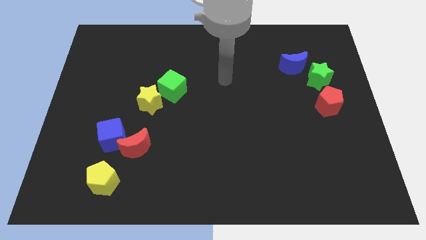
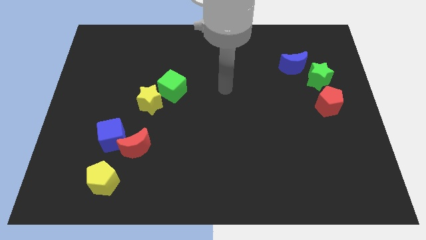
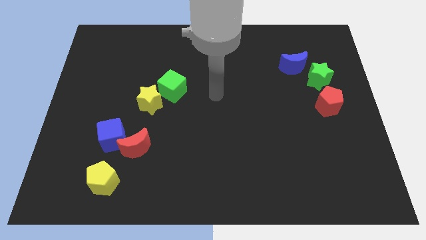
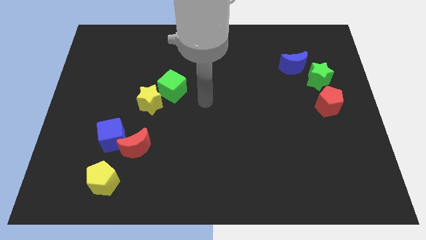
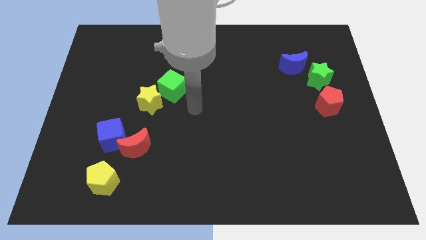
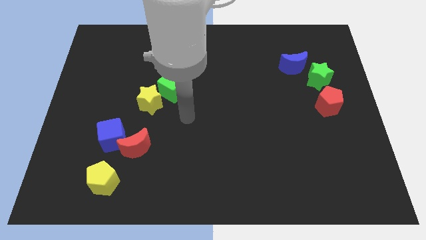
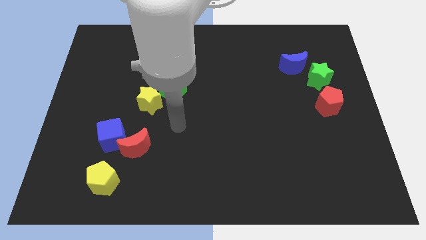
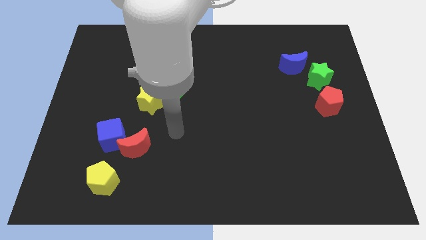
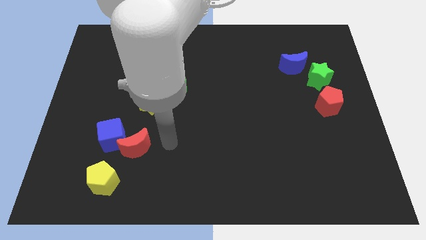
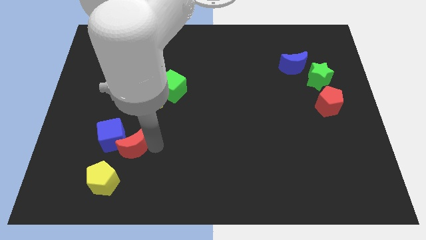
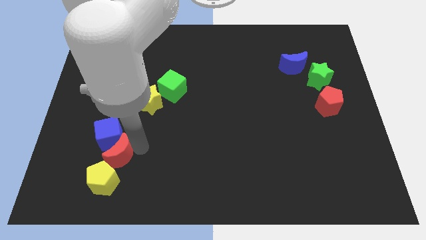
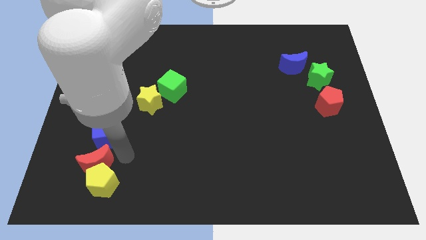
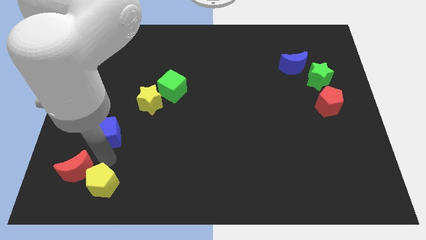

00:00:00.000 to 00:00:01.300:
separate the blue cube from the red moon

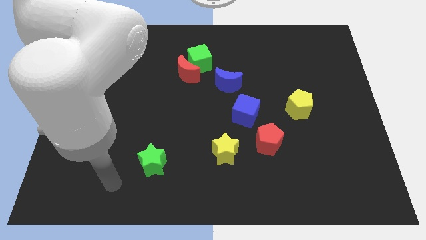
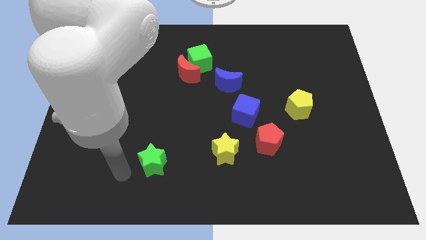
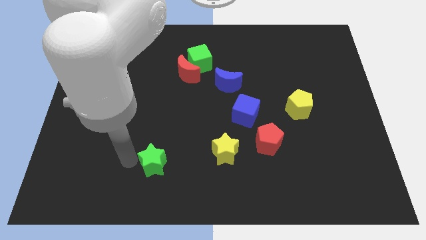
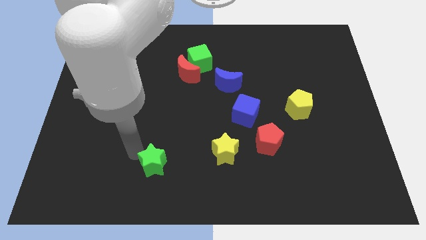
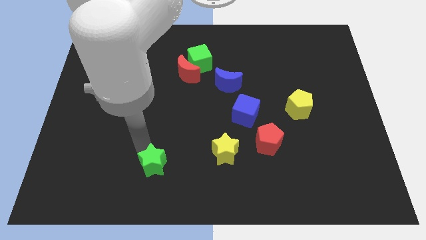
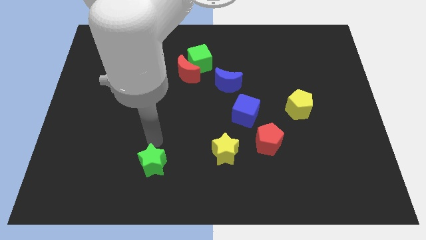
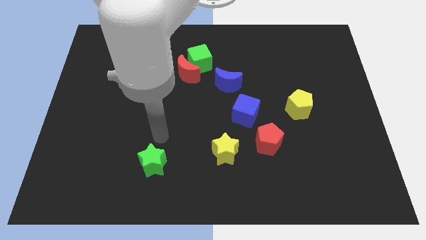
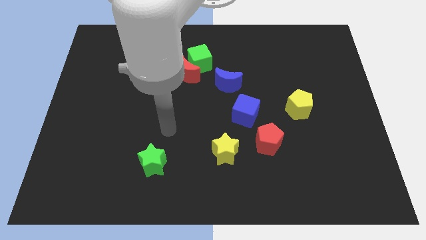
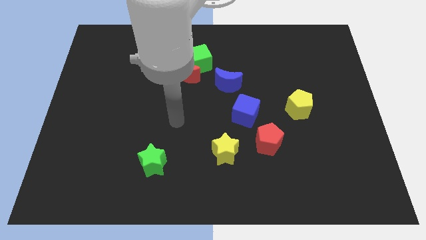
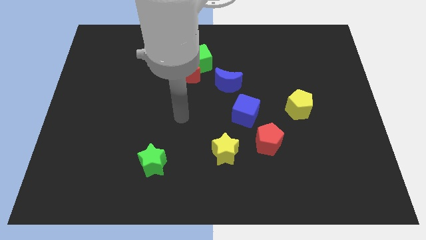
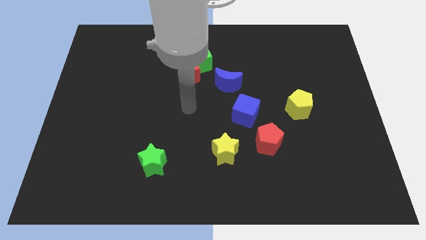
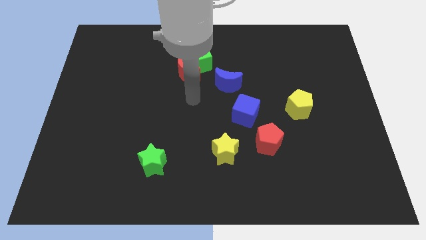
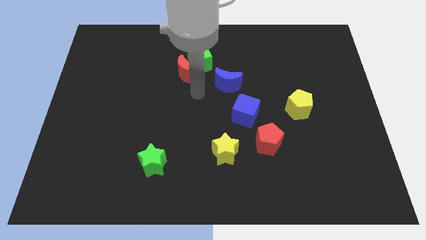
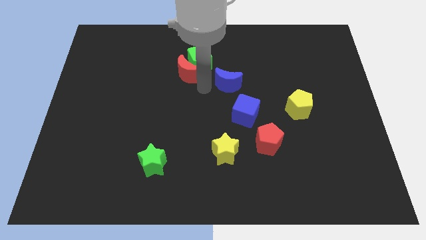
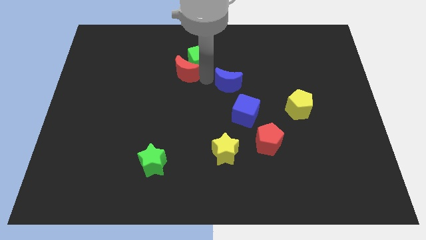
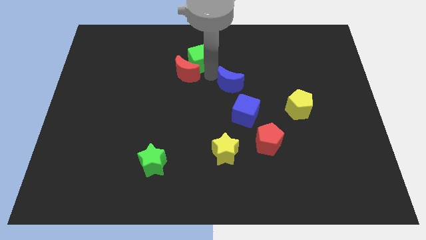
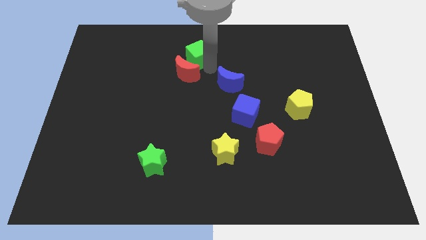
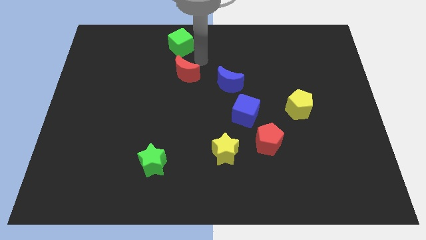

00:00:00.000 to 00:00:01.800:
pull the red moon apart from the green cube

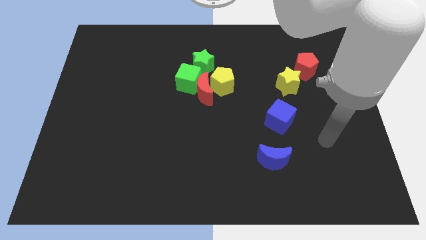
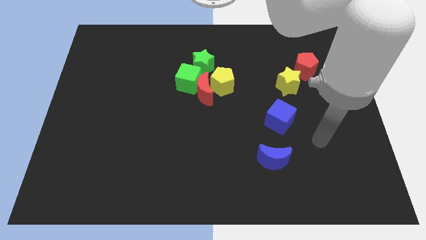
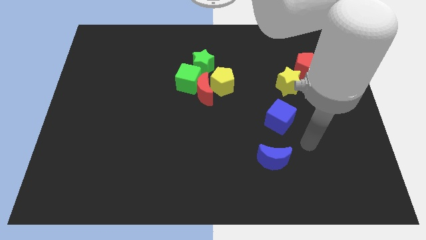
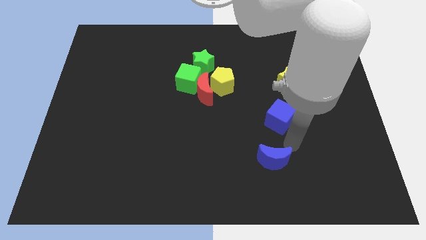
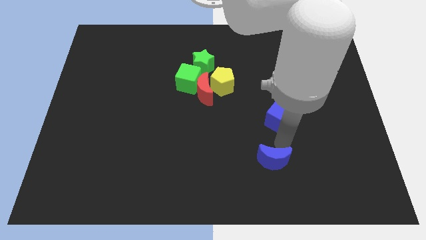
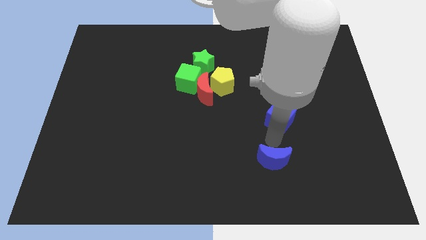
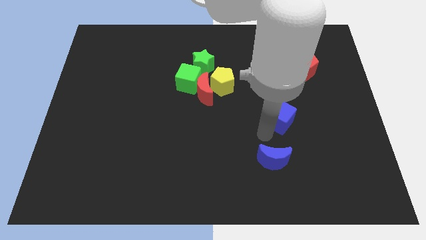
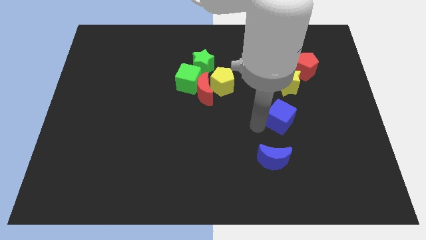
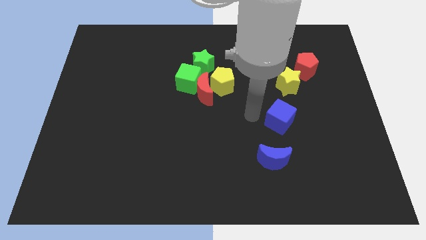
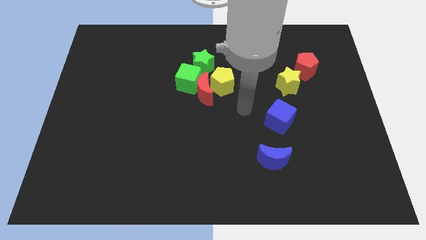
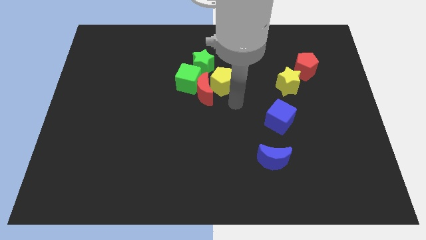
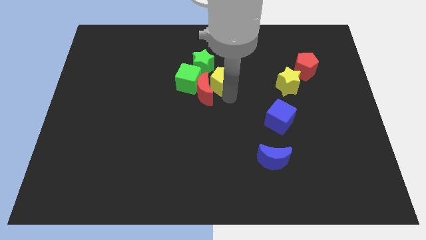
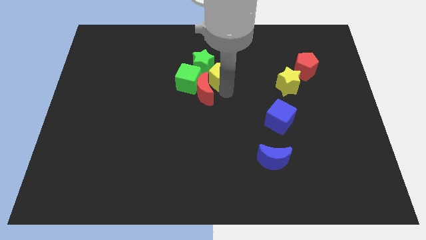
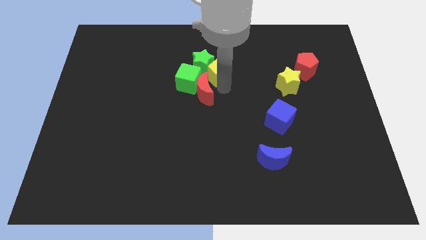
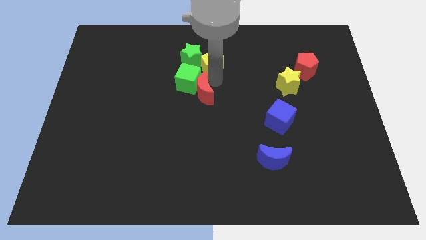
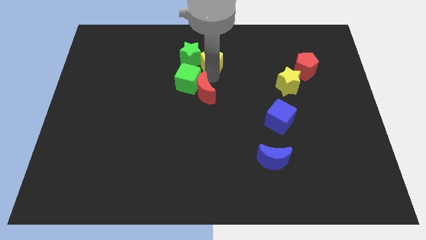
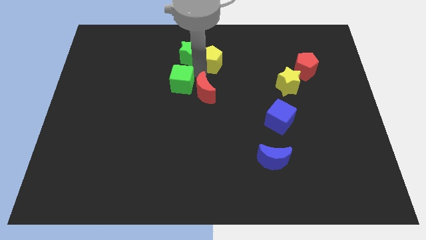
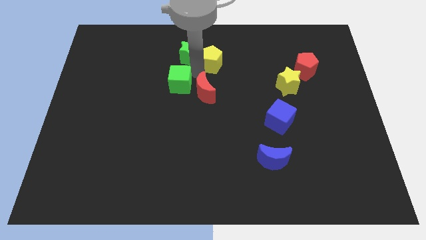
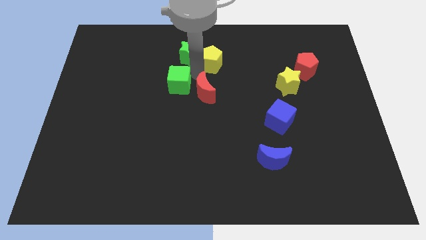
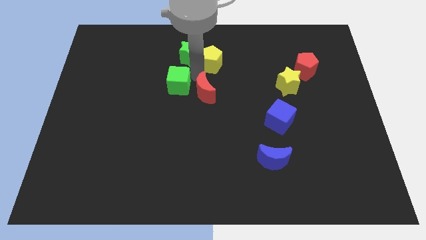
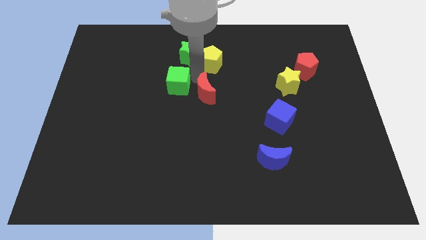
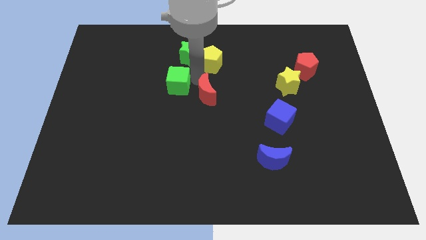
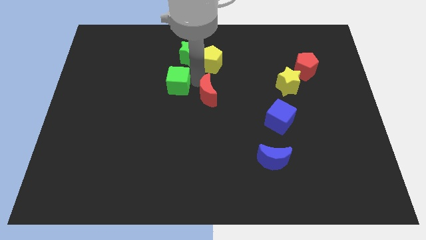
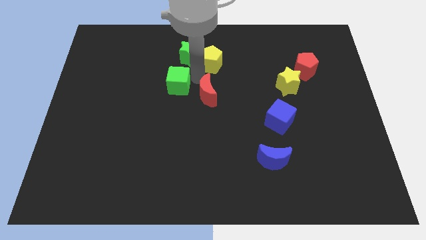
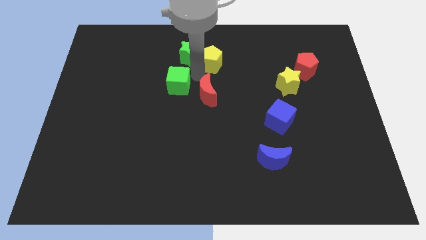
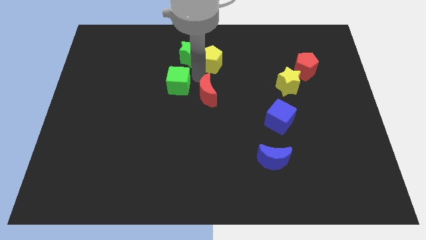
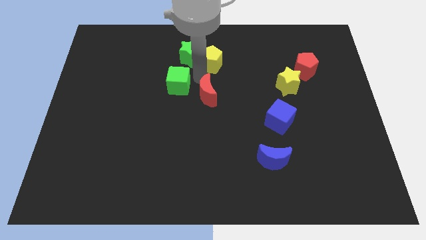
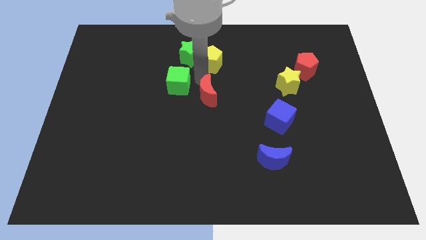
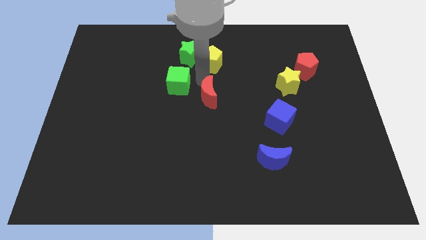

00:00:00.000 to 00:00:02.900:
move the red moon away from the clump

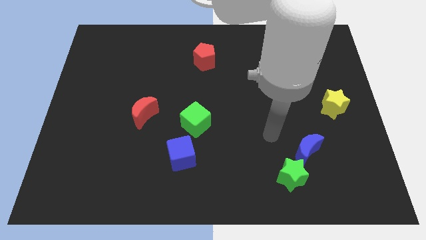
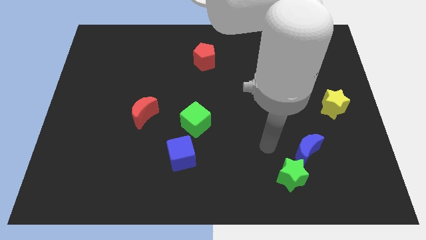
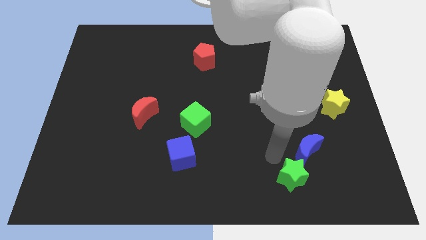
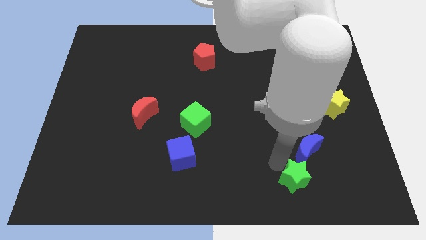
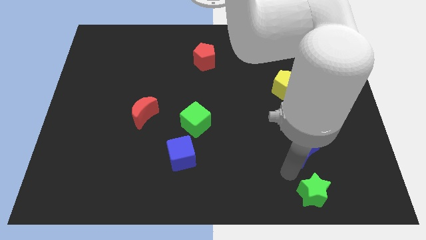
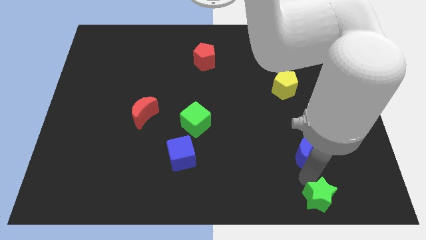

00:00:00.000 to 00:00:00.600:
move the blue moon away from the green star

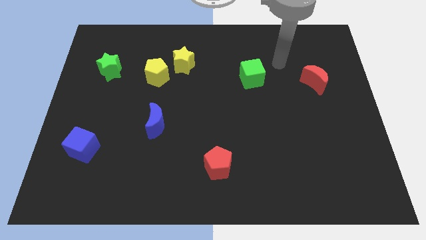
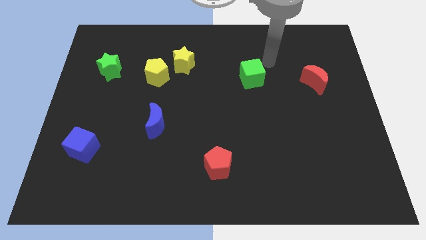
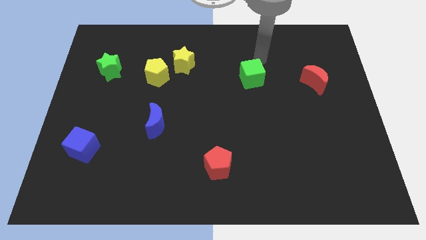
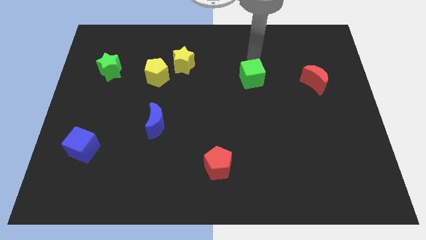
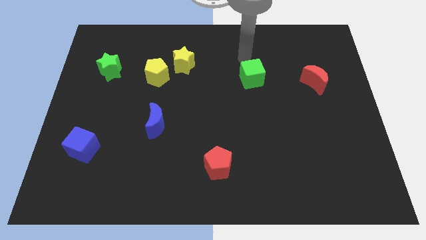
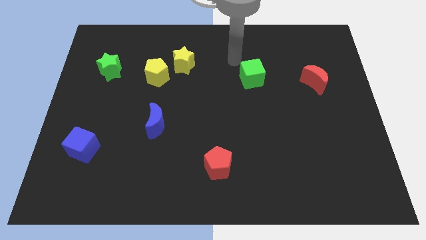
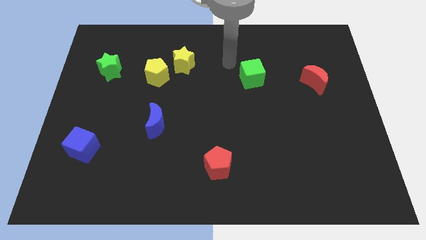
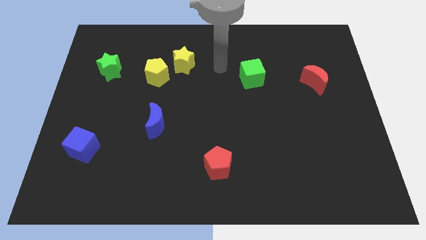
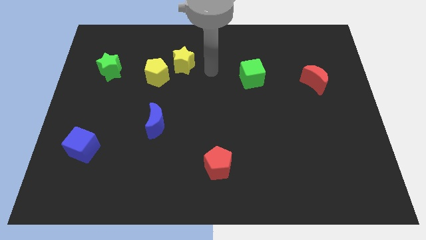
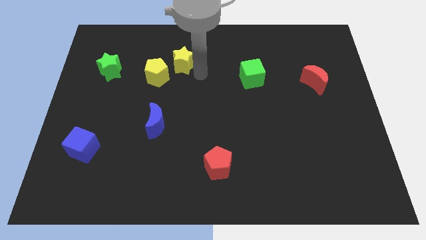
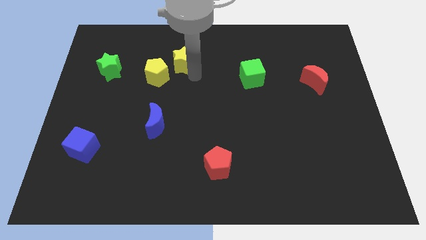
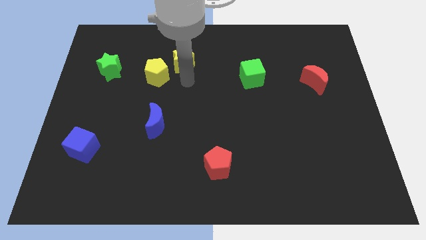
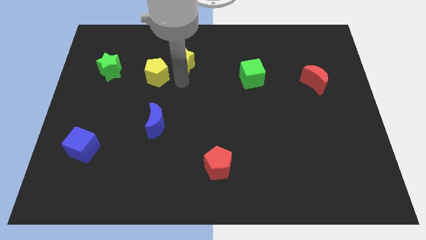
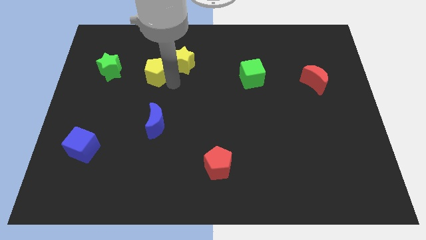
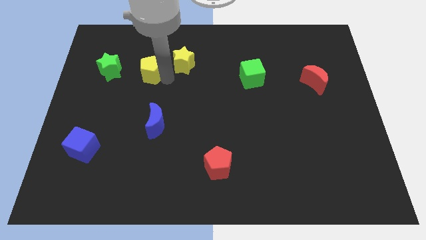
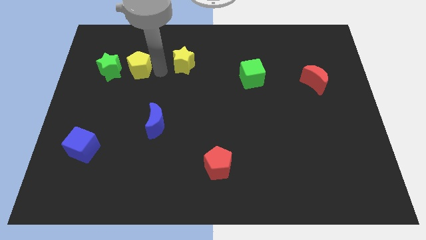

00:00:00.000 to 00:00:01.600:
pull the yellow star apart from the yellow pentagon

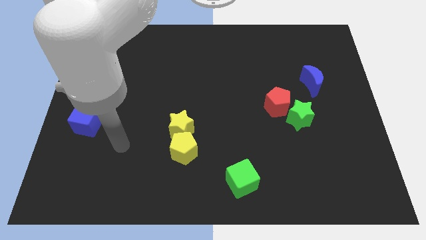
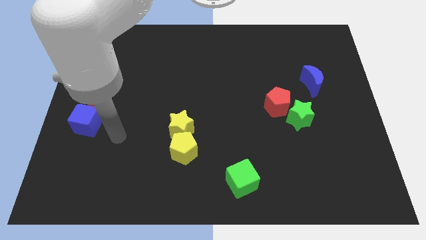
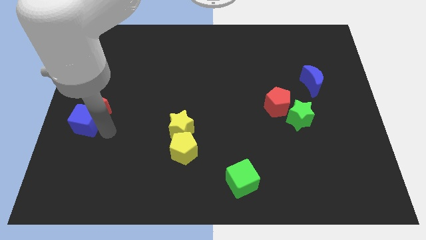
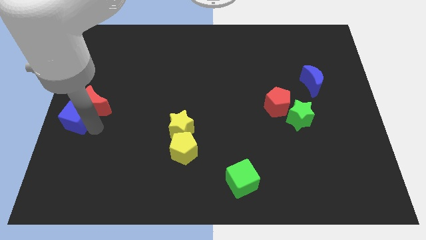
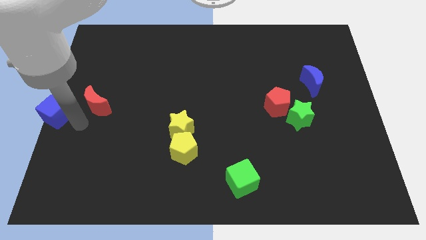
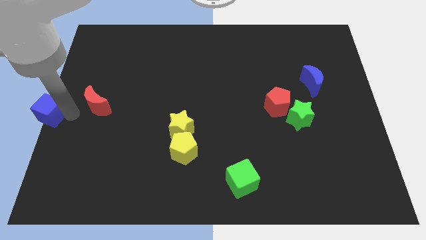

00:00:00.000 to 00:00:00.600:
pull the red moon apart from the blue cube

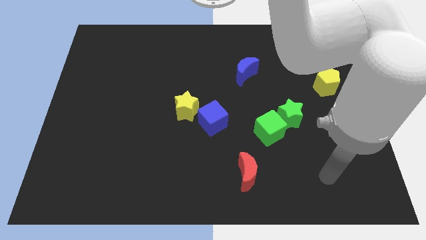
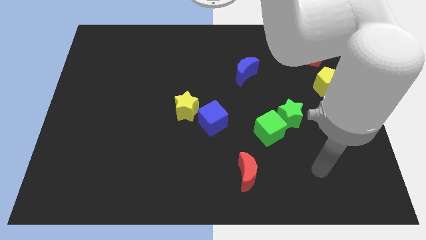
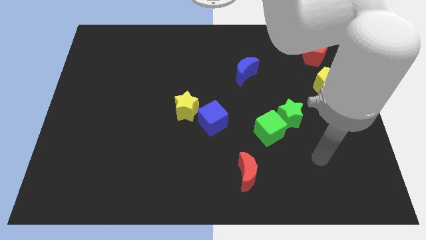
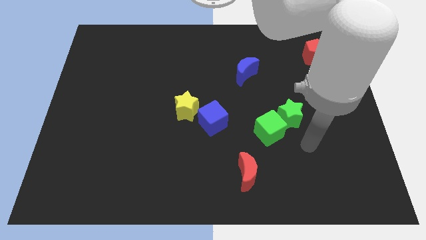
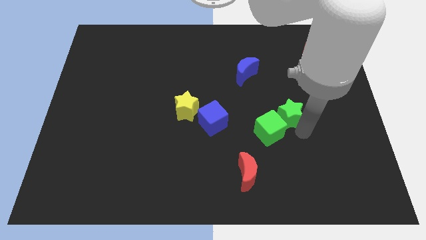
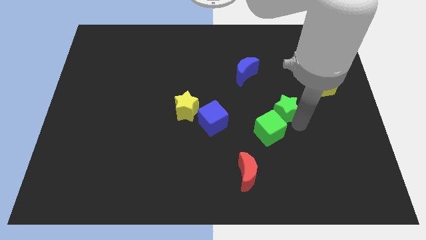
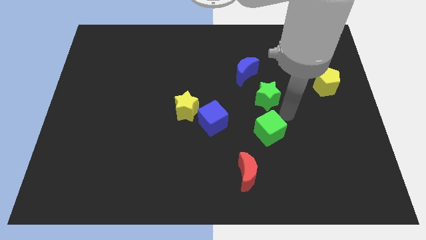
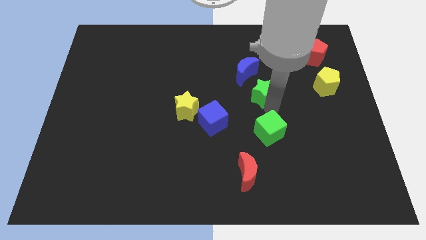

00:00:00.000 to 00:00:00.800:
move the green cube away from the green star
